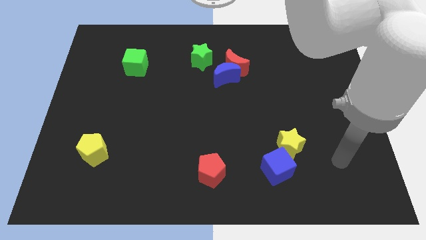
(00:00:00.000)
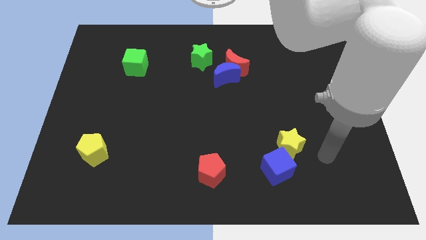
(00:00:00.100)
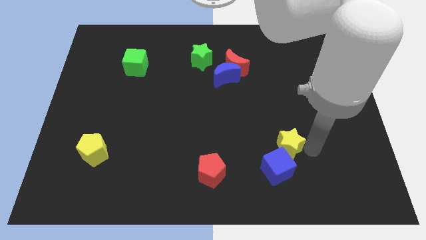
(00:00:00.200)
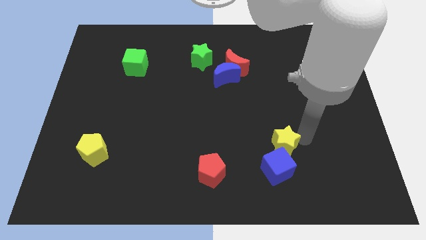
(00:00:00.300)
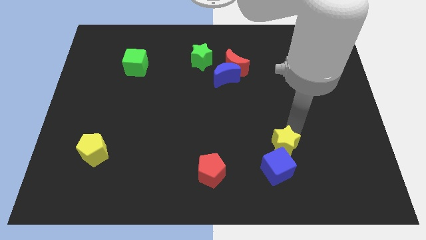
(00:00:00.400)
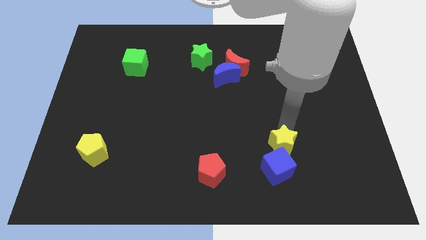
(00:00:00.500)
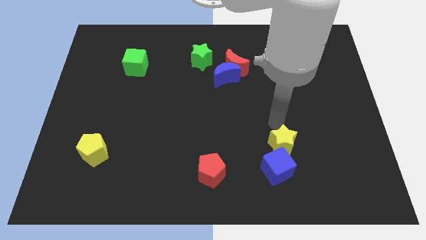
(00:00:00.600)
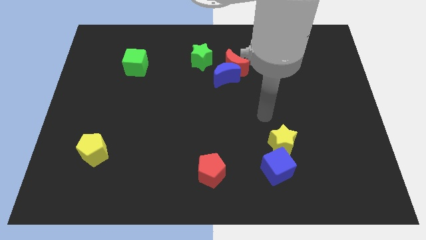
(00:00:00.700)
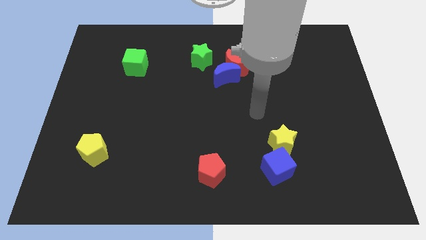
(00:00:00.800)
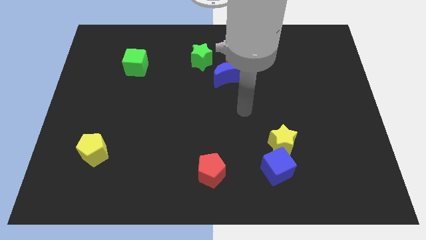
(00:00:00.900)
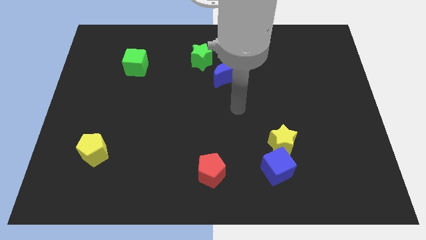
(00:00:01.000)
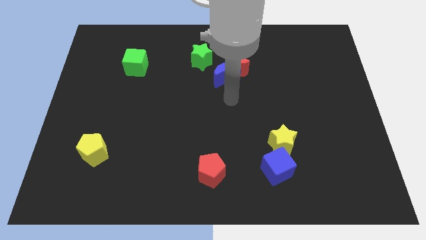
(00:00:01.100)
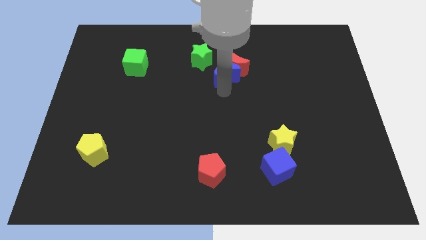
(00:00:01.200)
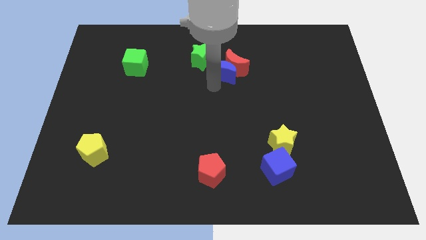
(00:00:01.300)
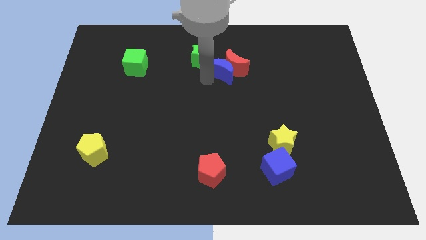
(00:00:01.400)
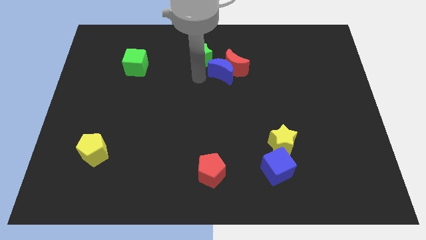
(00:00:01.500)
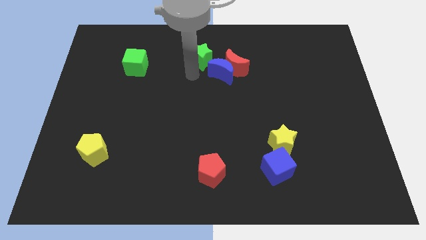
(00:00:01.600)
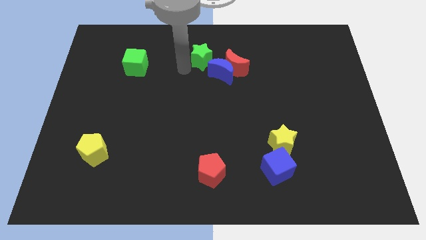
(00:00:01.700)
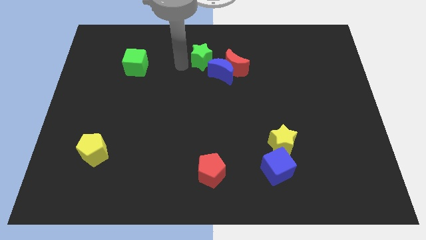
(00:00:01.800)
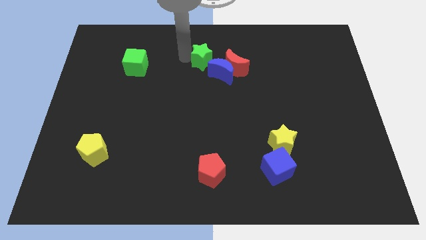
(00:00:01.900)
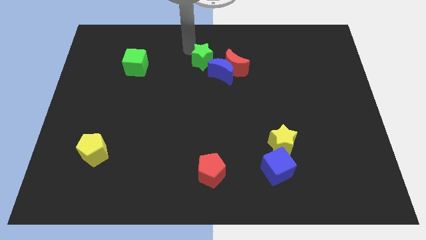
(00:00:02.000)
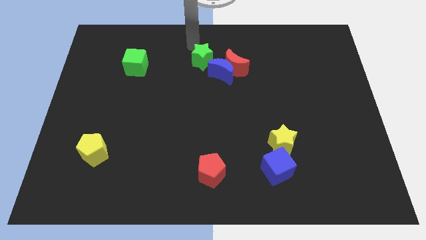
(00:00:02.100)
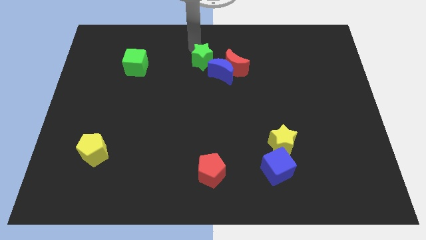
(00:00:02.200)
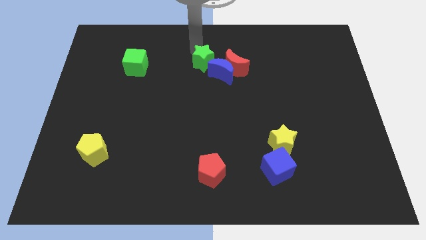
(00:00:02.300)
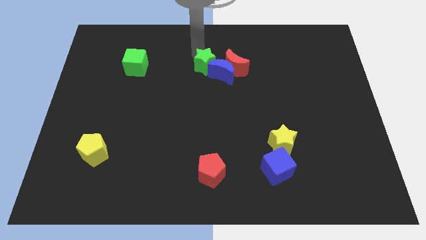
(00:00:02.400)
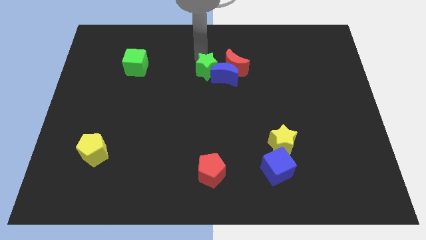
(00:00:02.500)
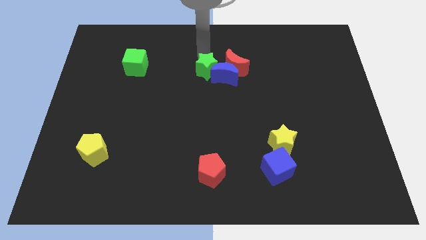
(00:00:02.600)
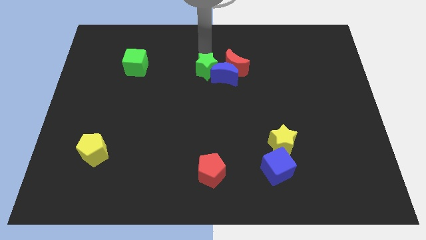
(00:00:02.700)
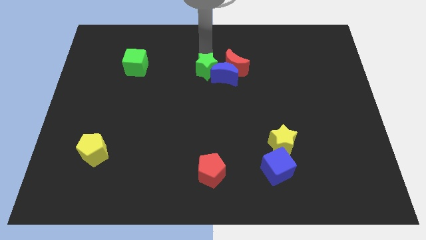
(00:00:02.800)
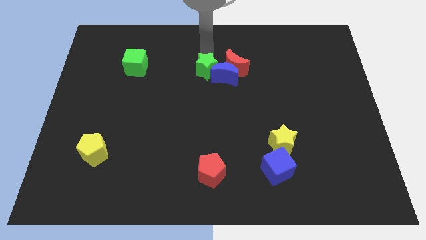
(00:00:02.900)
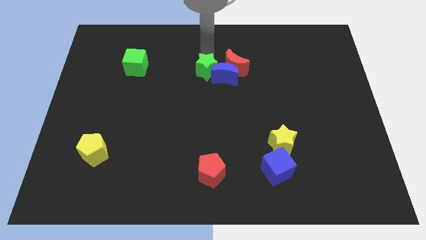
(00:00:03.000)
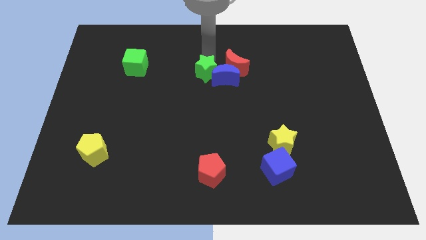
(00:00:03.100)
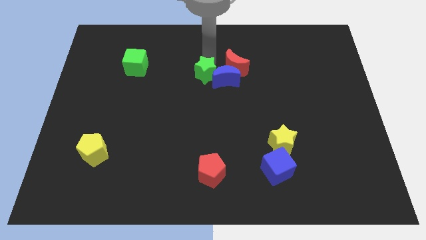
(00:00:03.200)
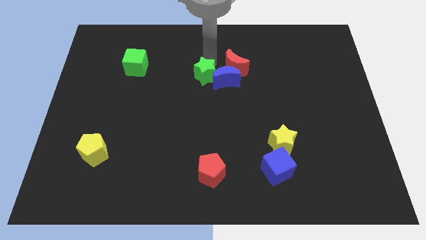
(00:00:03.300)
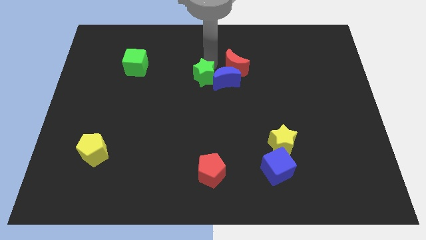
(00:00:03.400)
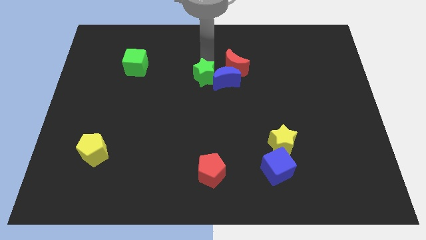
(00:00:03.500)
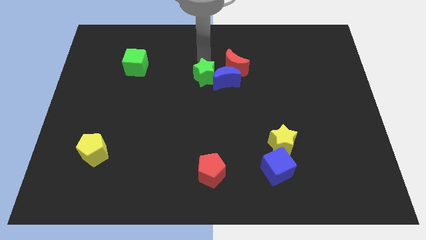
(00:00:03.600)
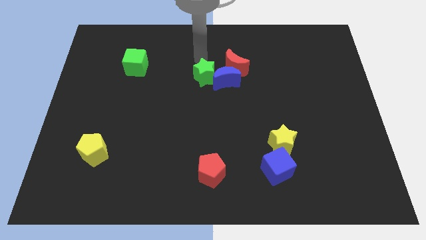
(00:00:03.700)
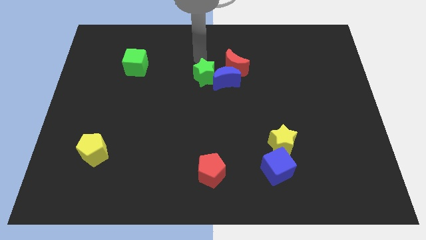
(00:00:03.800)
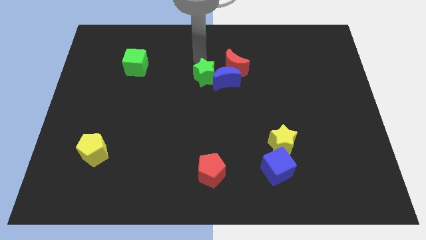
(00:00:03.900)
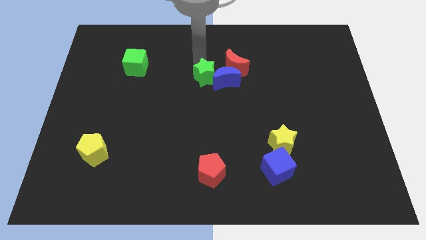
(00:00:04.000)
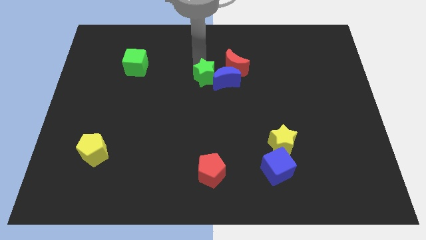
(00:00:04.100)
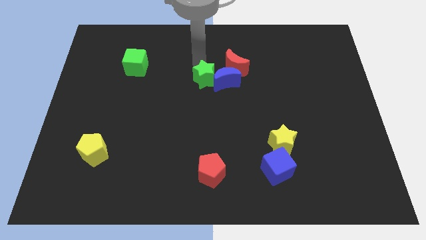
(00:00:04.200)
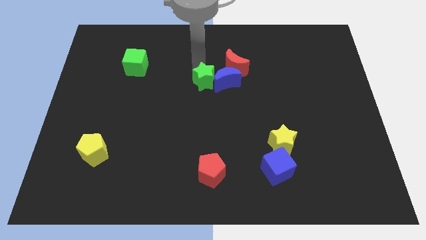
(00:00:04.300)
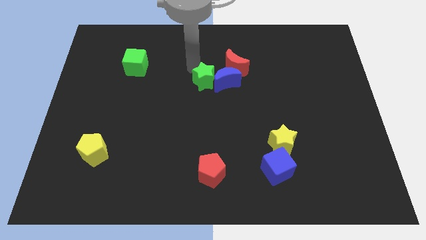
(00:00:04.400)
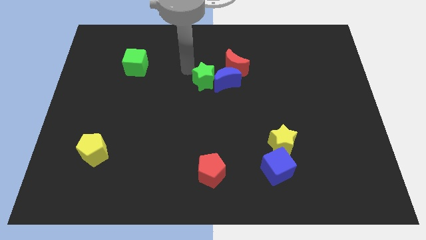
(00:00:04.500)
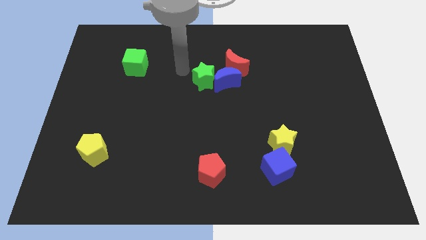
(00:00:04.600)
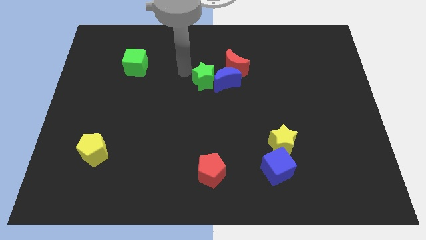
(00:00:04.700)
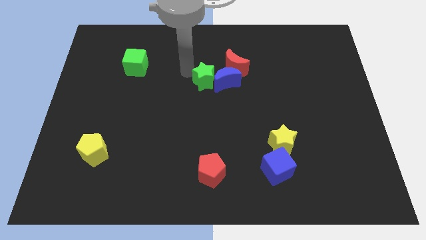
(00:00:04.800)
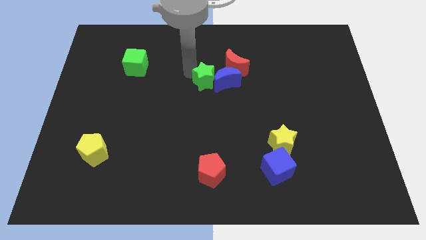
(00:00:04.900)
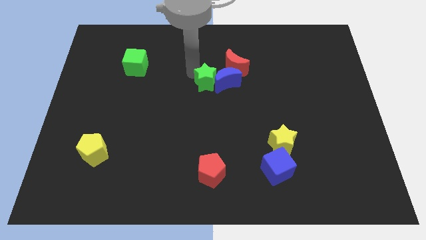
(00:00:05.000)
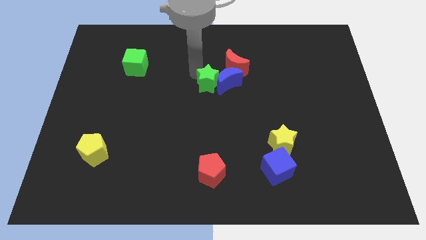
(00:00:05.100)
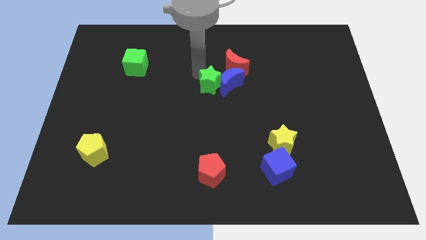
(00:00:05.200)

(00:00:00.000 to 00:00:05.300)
slightly push the green star downwards and then right

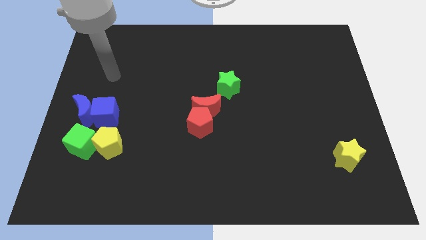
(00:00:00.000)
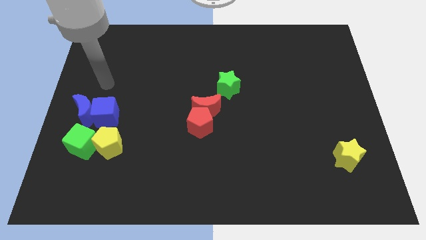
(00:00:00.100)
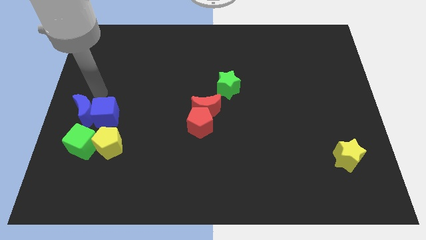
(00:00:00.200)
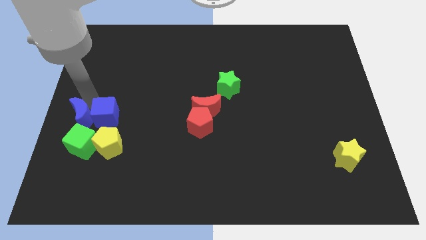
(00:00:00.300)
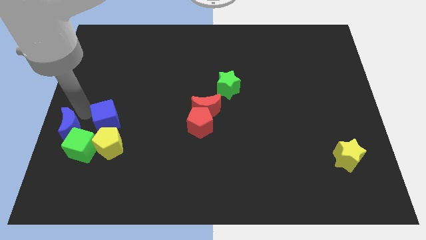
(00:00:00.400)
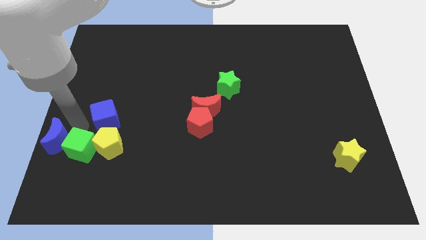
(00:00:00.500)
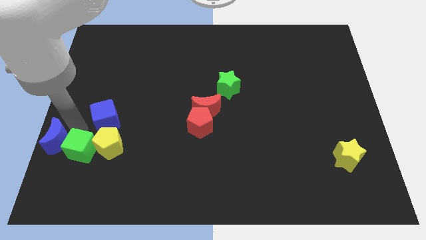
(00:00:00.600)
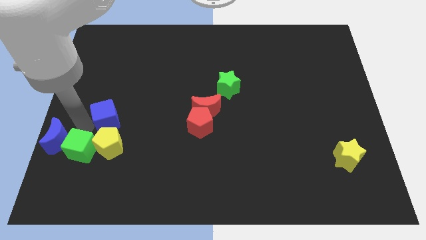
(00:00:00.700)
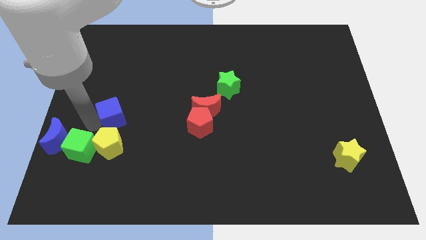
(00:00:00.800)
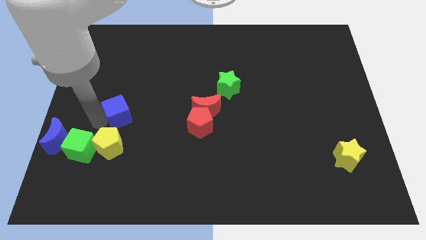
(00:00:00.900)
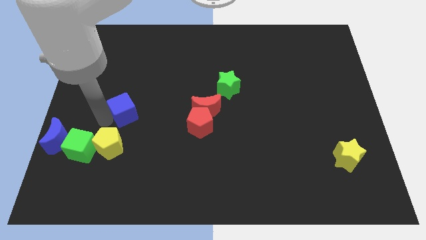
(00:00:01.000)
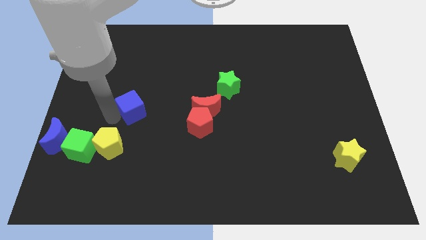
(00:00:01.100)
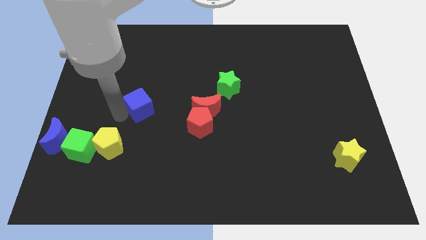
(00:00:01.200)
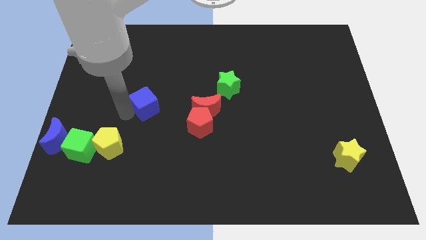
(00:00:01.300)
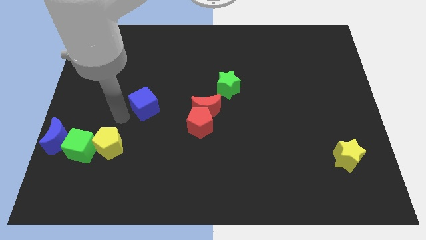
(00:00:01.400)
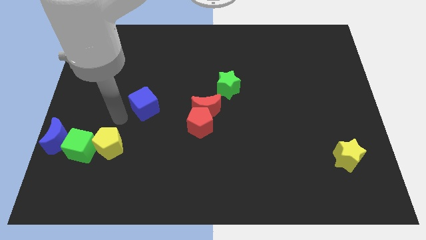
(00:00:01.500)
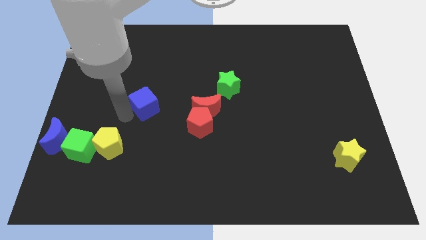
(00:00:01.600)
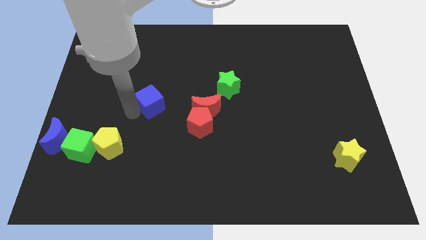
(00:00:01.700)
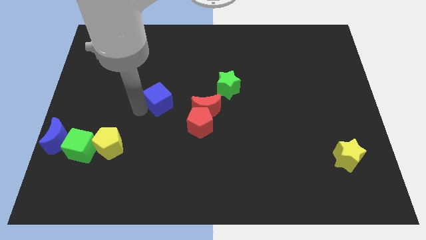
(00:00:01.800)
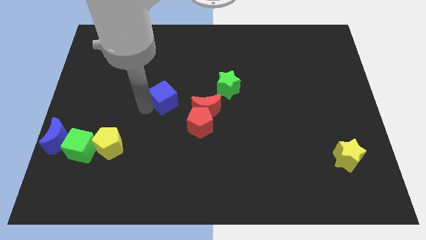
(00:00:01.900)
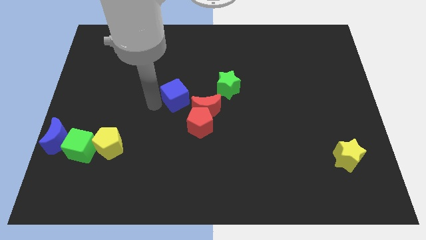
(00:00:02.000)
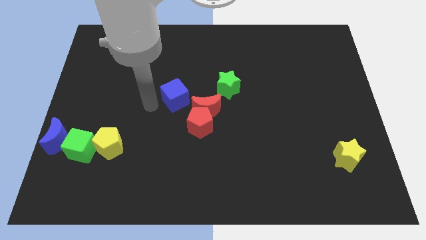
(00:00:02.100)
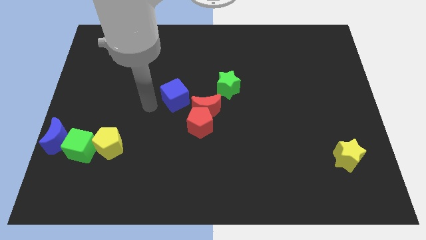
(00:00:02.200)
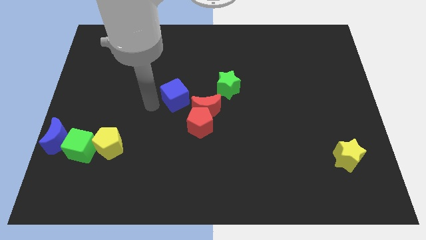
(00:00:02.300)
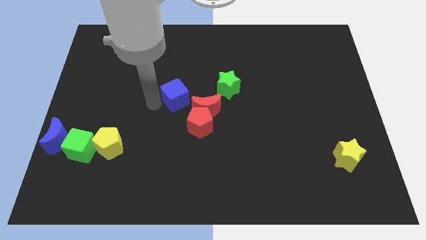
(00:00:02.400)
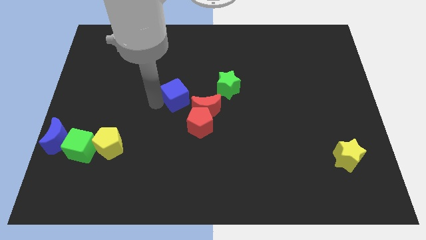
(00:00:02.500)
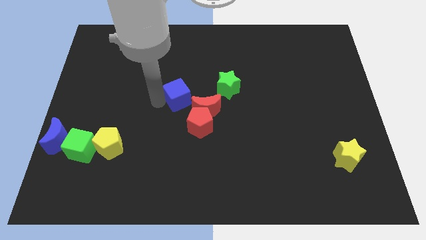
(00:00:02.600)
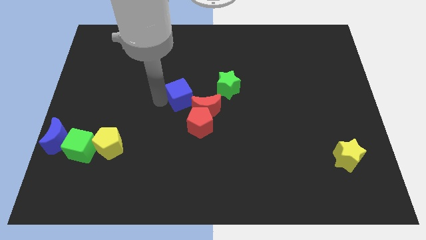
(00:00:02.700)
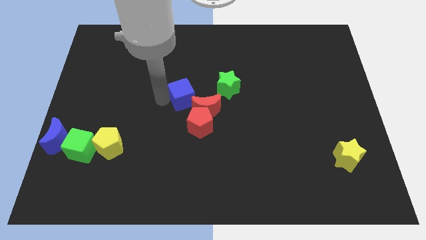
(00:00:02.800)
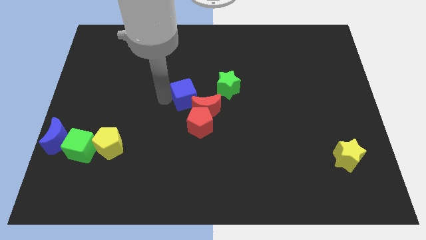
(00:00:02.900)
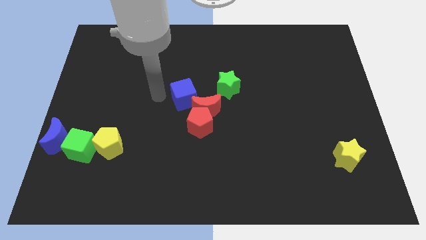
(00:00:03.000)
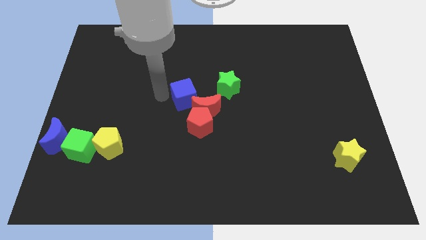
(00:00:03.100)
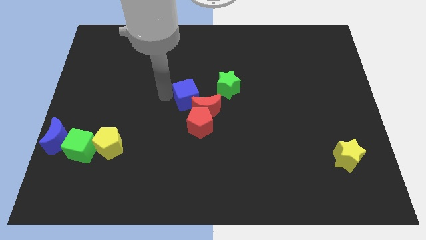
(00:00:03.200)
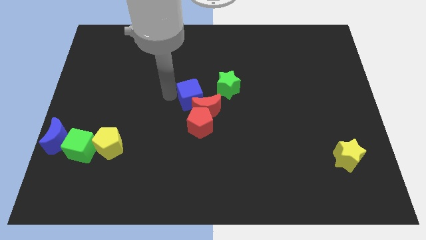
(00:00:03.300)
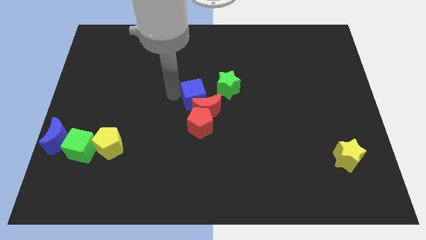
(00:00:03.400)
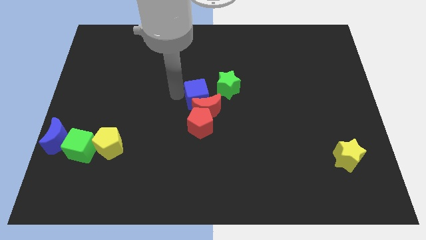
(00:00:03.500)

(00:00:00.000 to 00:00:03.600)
slide the blue cube to the right
